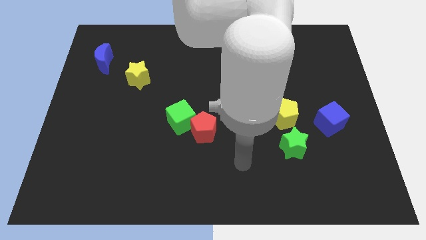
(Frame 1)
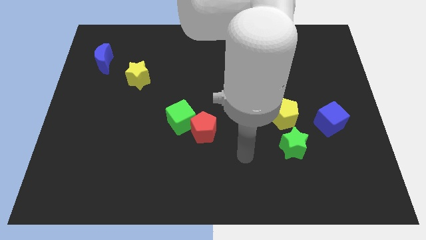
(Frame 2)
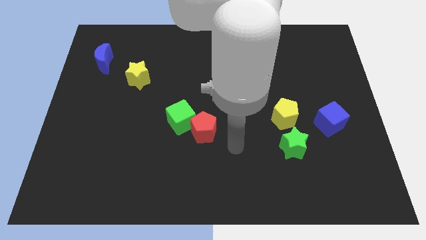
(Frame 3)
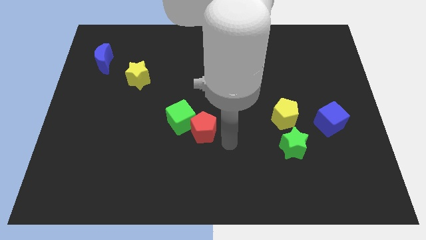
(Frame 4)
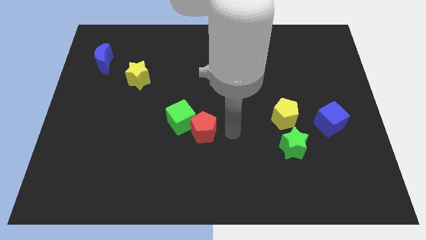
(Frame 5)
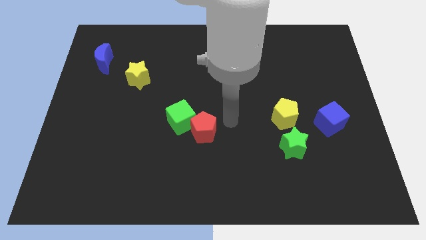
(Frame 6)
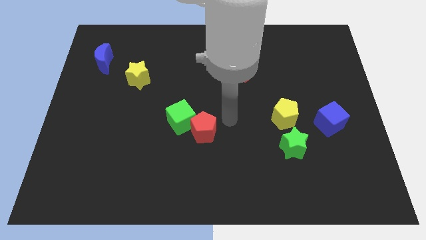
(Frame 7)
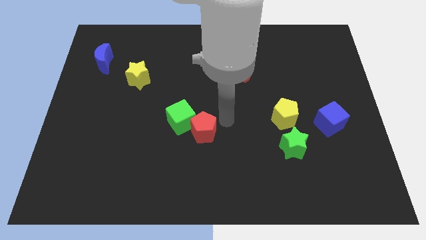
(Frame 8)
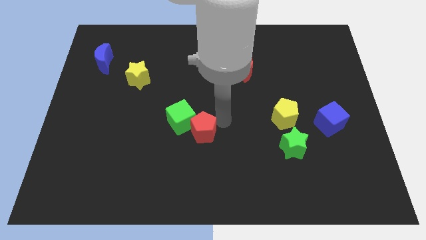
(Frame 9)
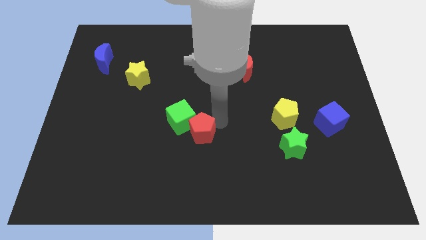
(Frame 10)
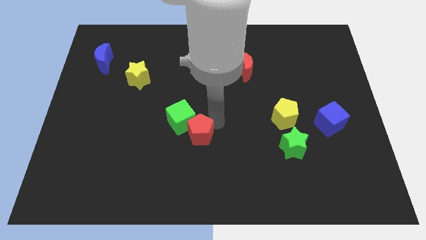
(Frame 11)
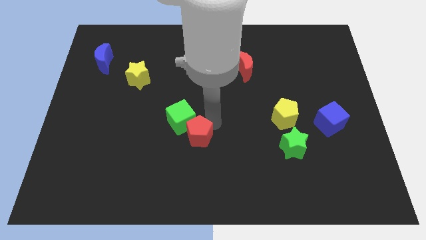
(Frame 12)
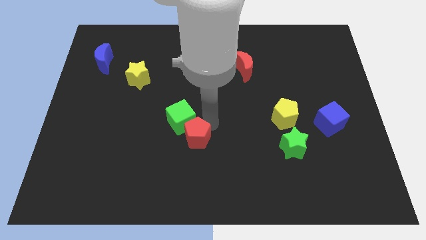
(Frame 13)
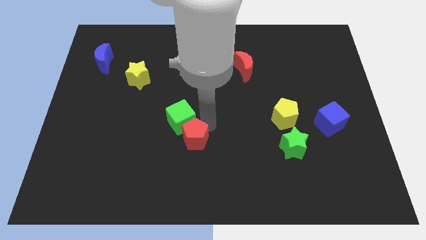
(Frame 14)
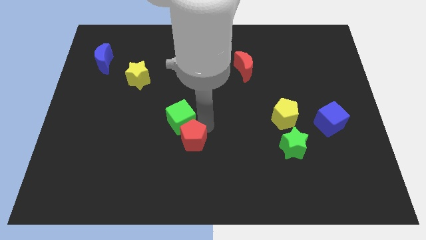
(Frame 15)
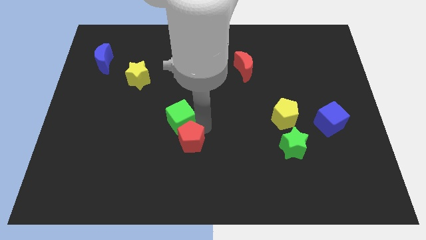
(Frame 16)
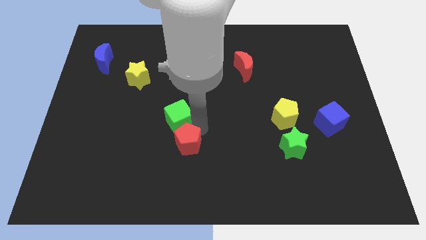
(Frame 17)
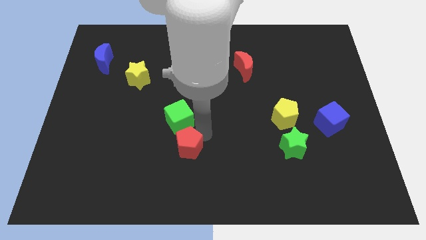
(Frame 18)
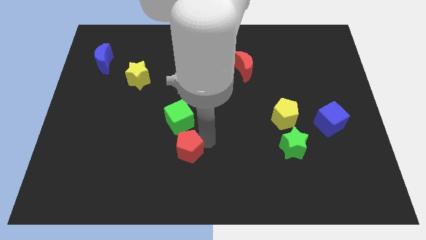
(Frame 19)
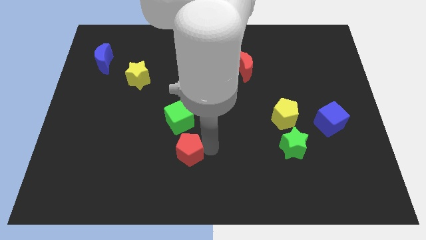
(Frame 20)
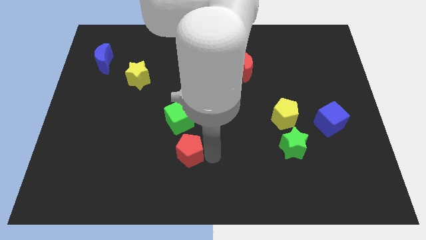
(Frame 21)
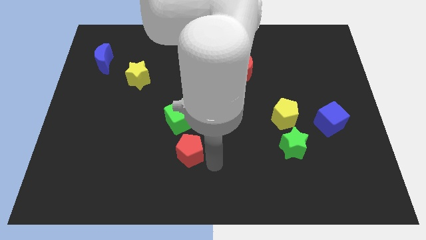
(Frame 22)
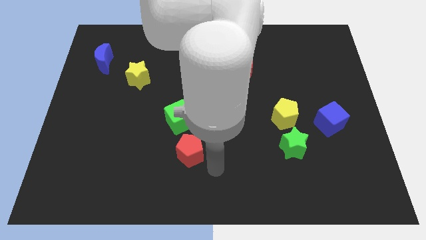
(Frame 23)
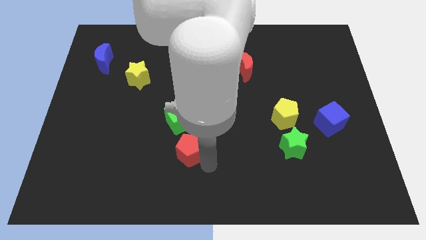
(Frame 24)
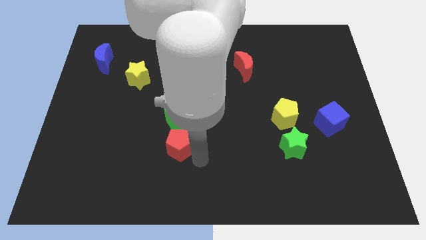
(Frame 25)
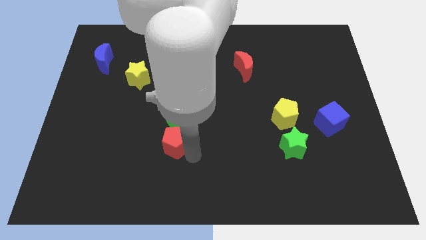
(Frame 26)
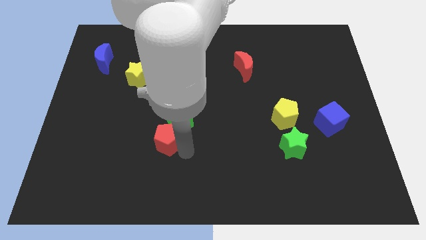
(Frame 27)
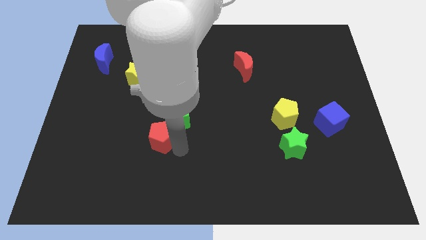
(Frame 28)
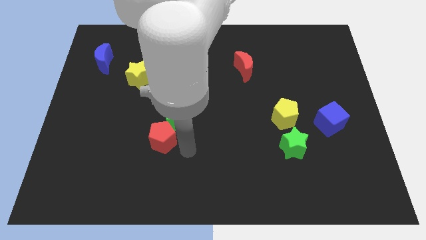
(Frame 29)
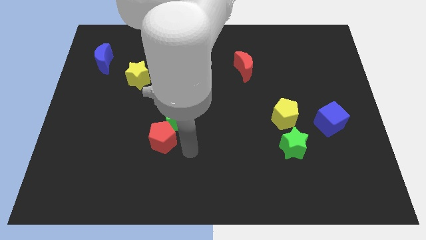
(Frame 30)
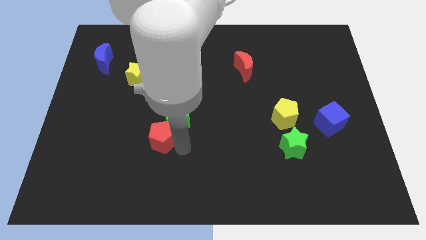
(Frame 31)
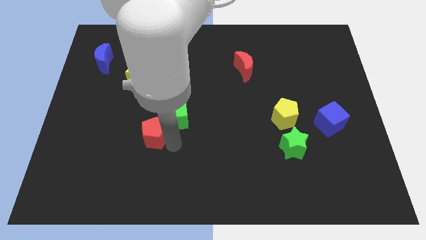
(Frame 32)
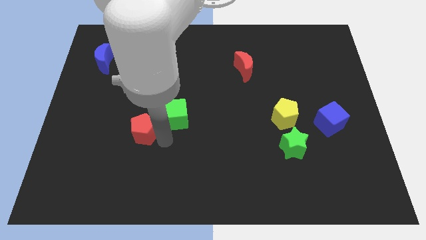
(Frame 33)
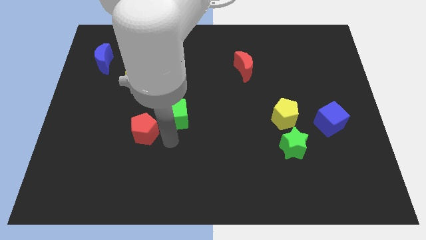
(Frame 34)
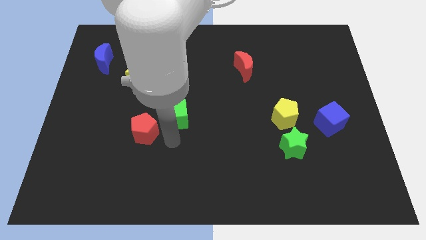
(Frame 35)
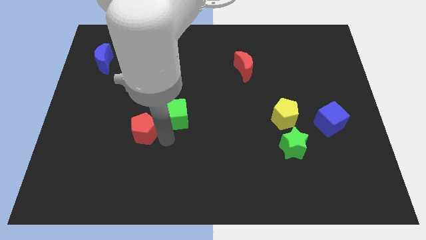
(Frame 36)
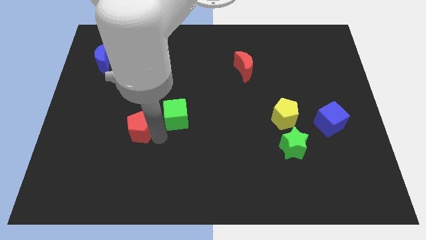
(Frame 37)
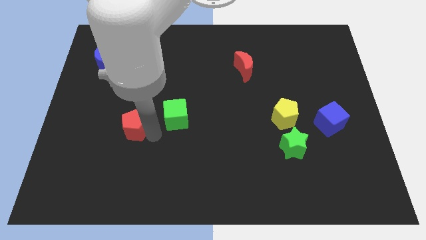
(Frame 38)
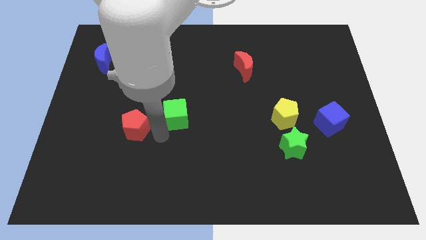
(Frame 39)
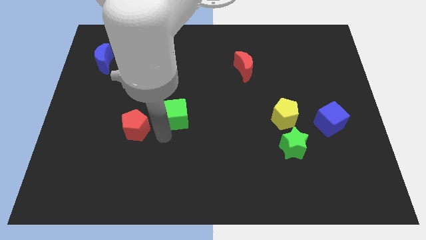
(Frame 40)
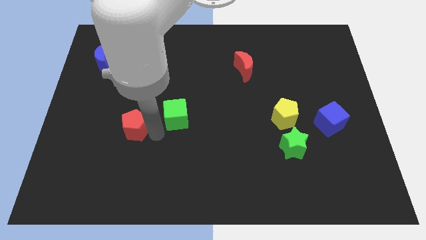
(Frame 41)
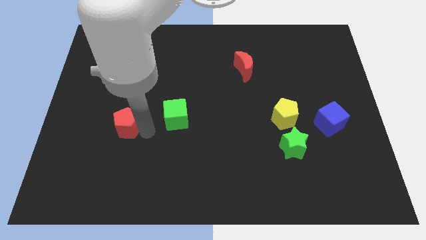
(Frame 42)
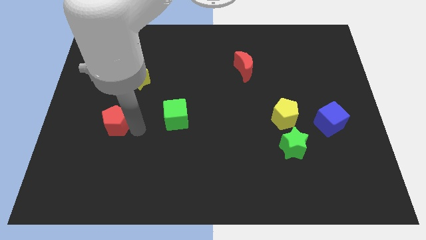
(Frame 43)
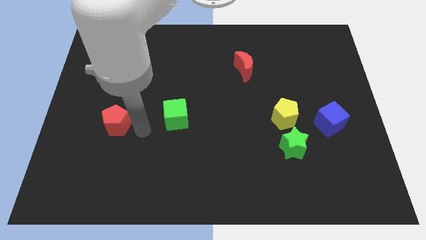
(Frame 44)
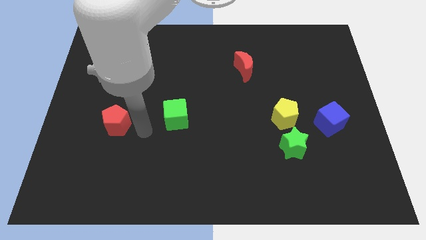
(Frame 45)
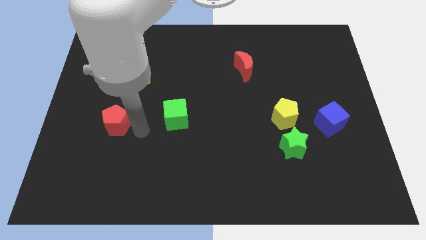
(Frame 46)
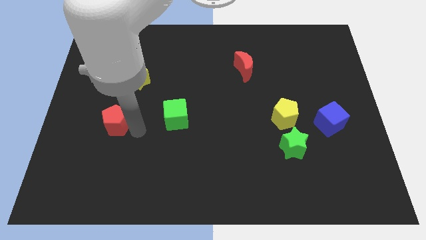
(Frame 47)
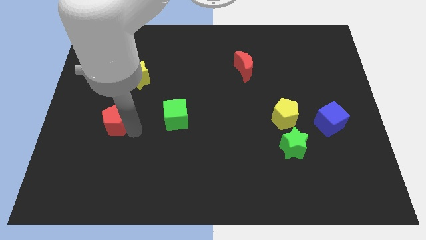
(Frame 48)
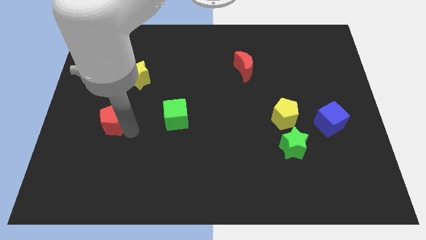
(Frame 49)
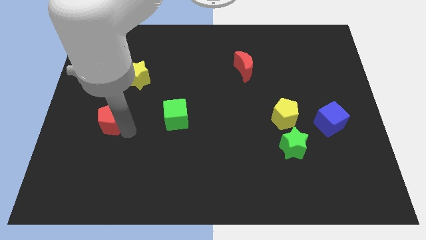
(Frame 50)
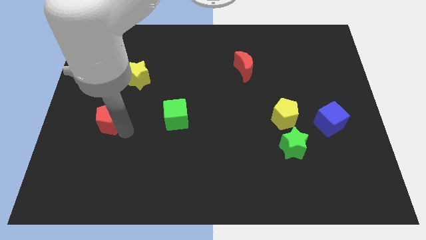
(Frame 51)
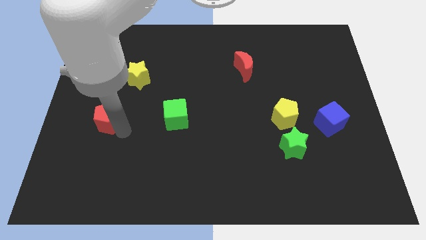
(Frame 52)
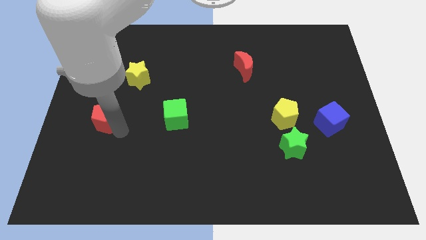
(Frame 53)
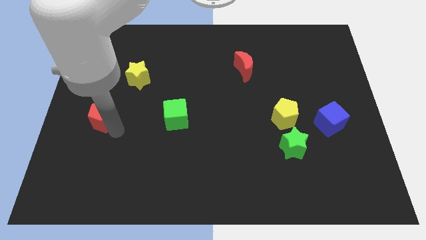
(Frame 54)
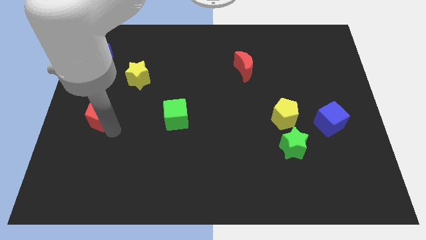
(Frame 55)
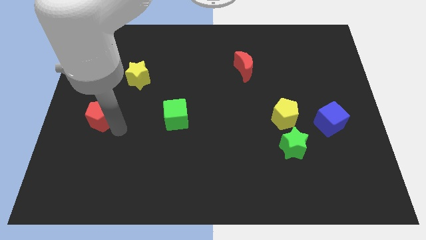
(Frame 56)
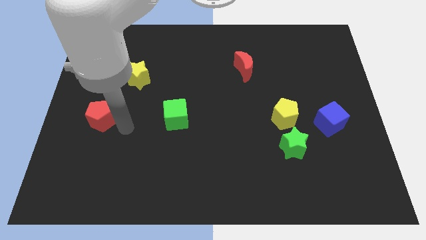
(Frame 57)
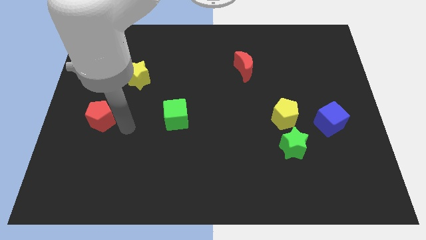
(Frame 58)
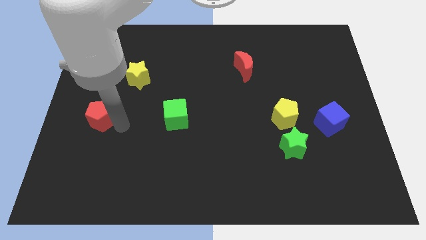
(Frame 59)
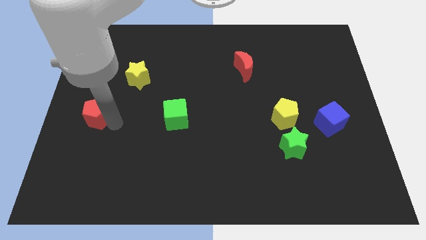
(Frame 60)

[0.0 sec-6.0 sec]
slide the red pentagon to the left side
